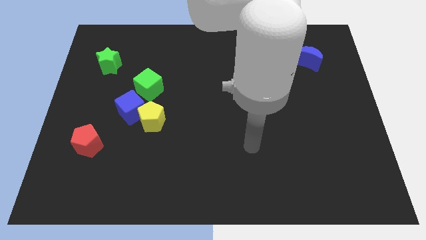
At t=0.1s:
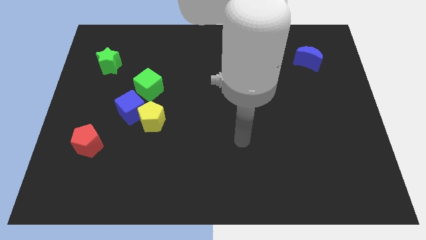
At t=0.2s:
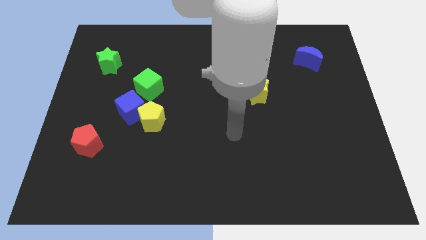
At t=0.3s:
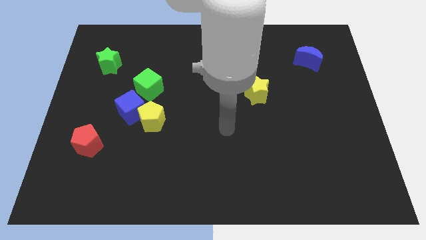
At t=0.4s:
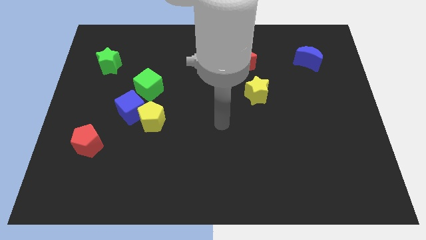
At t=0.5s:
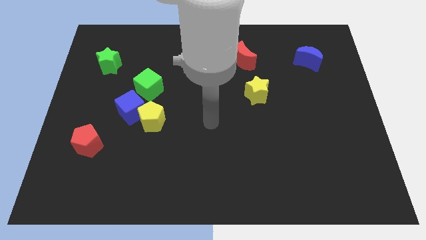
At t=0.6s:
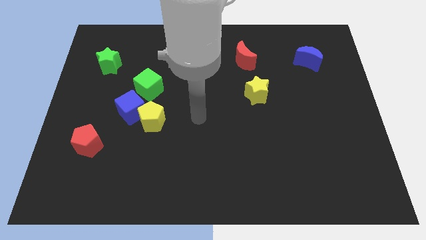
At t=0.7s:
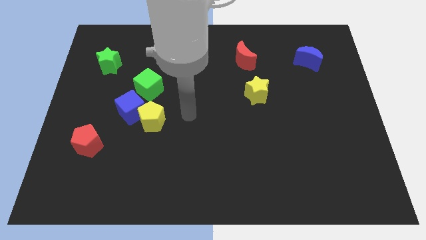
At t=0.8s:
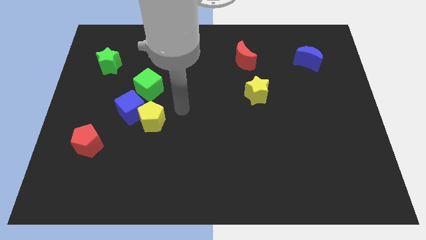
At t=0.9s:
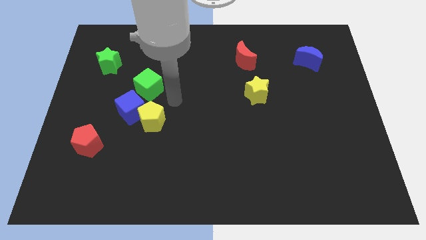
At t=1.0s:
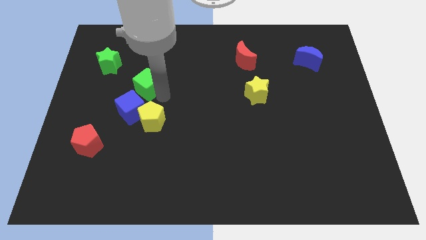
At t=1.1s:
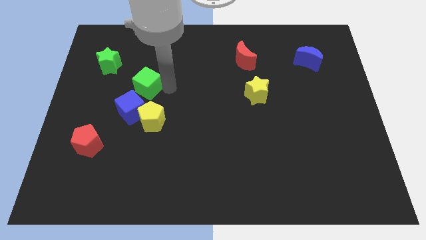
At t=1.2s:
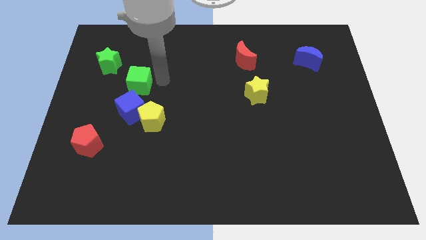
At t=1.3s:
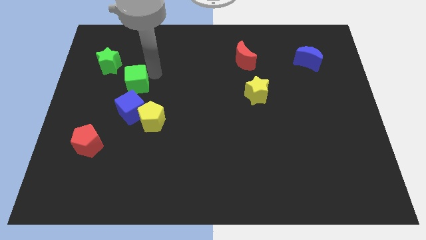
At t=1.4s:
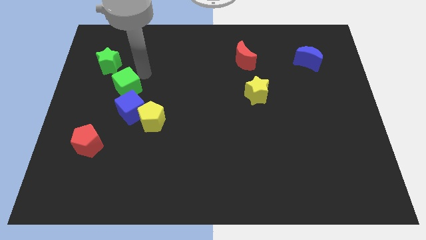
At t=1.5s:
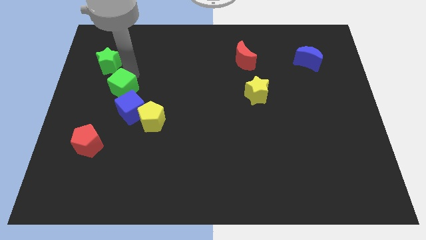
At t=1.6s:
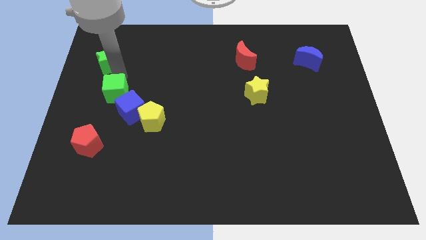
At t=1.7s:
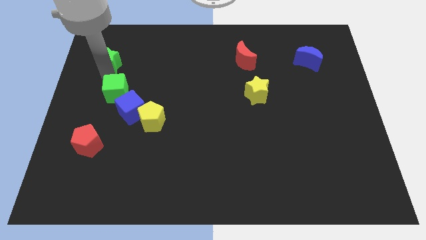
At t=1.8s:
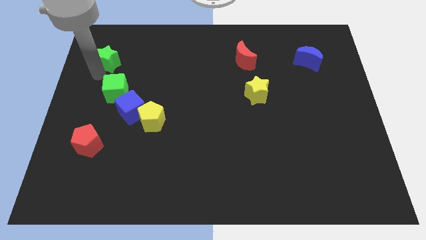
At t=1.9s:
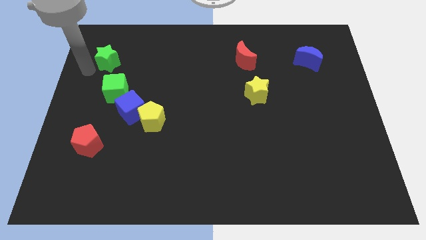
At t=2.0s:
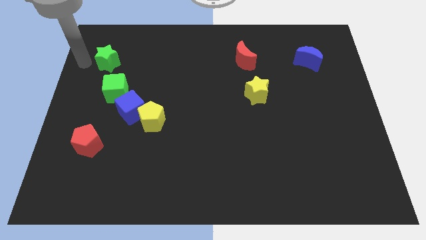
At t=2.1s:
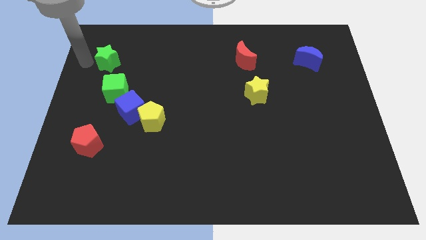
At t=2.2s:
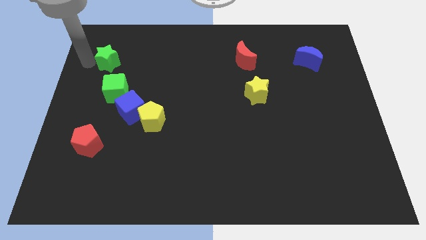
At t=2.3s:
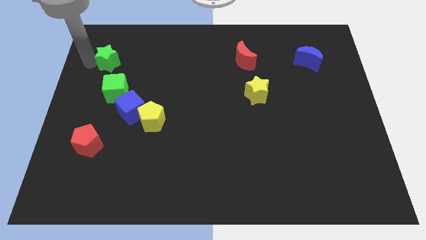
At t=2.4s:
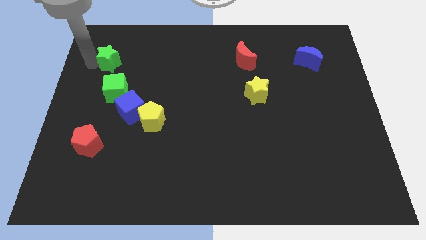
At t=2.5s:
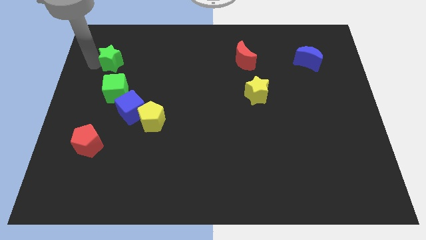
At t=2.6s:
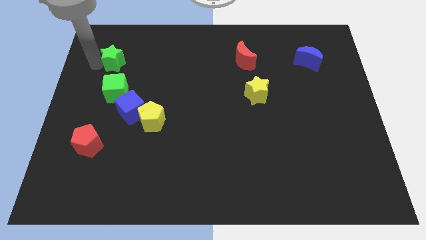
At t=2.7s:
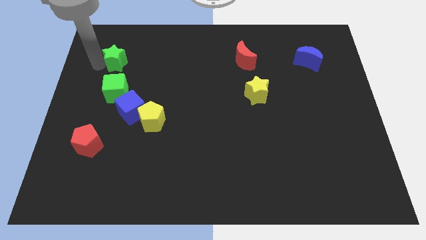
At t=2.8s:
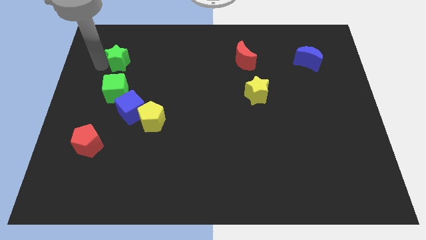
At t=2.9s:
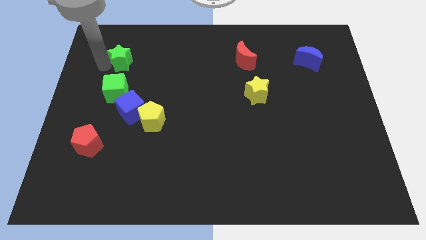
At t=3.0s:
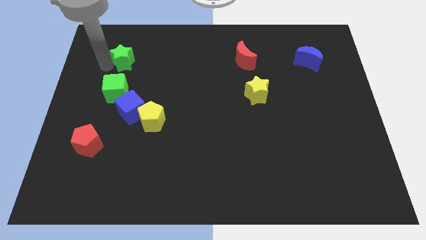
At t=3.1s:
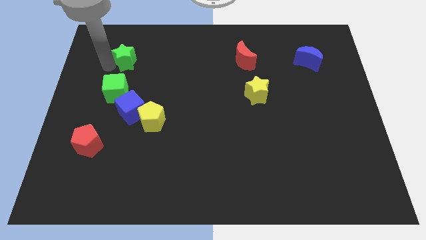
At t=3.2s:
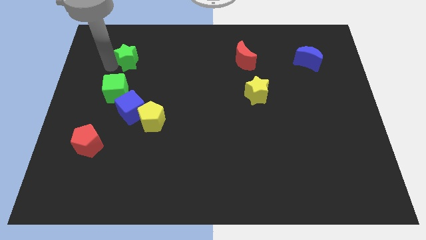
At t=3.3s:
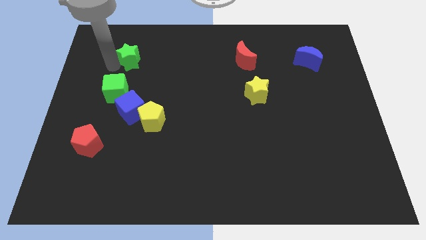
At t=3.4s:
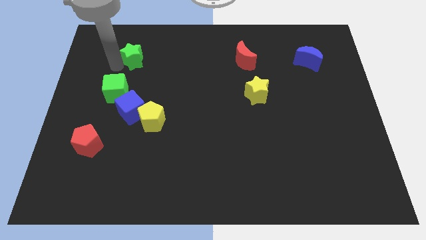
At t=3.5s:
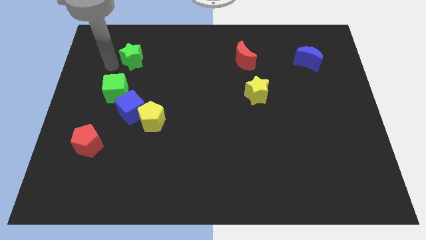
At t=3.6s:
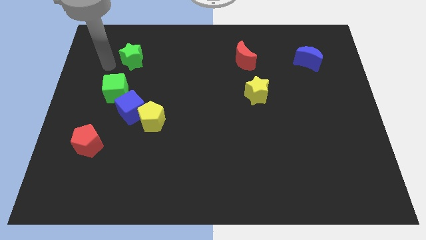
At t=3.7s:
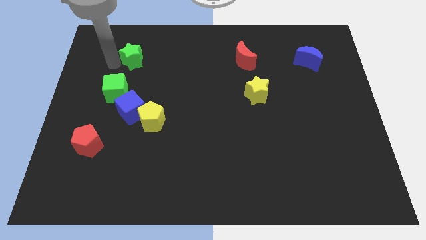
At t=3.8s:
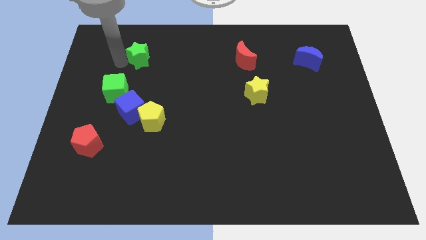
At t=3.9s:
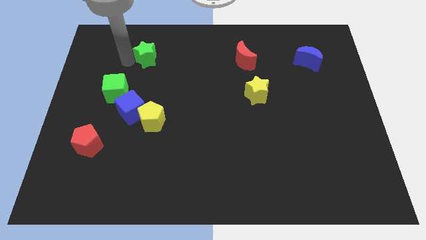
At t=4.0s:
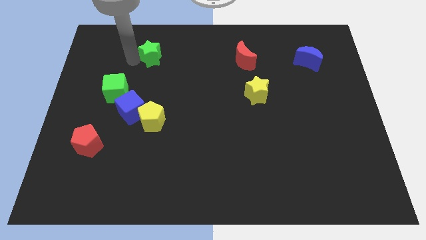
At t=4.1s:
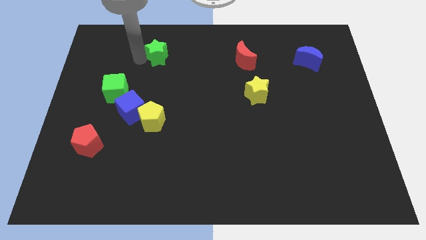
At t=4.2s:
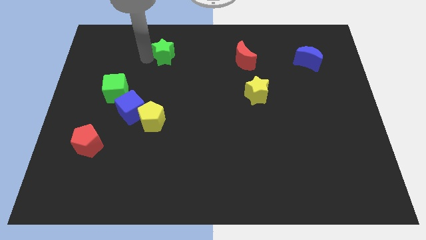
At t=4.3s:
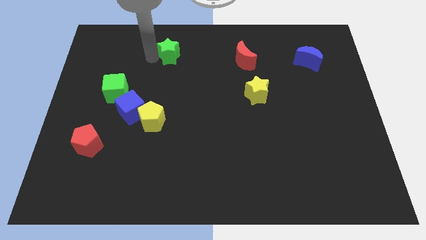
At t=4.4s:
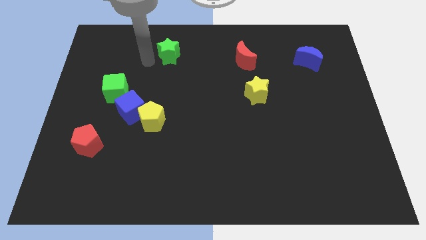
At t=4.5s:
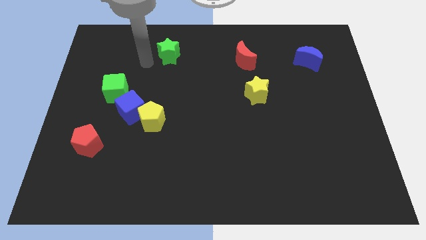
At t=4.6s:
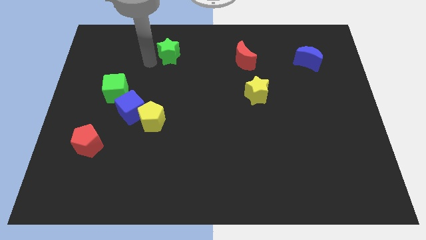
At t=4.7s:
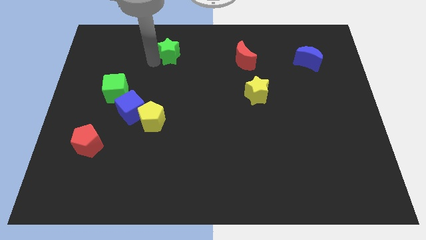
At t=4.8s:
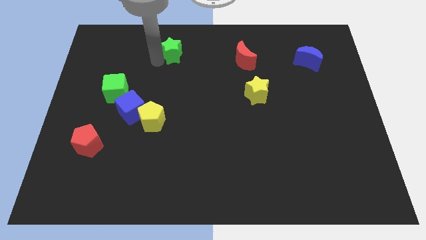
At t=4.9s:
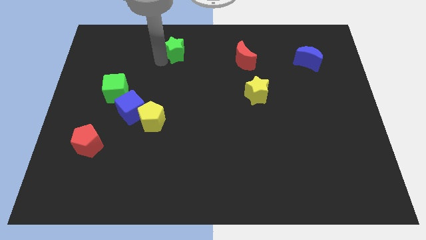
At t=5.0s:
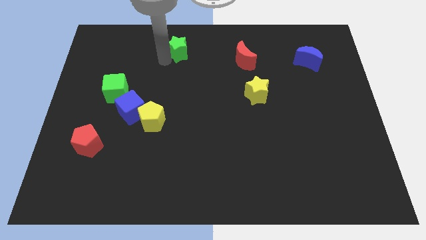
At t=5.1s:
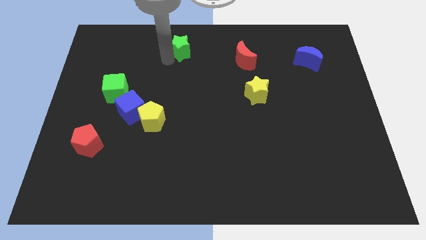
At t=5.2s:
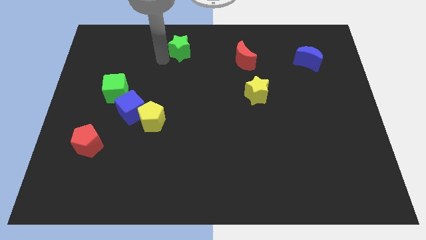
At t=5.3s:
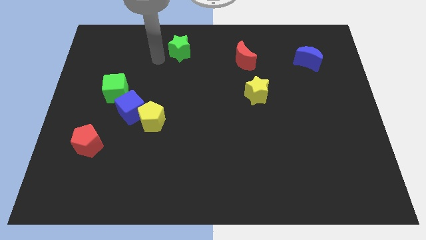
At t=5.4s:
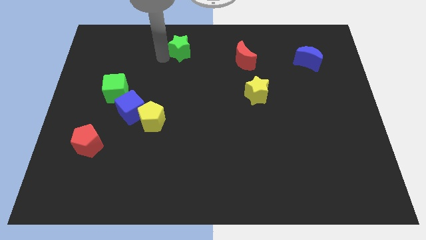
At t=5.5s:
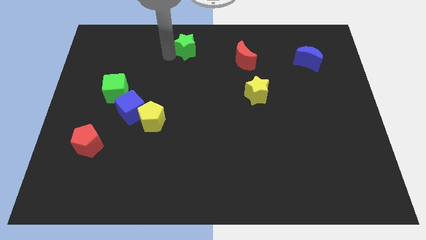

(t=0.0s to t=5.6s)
move the green star to the towards your base

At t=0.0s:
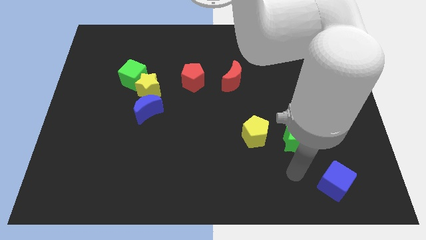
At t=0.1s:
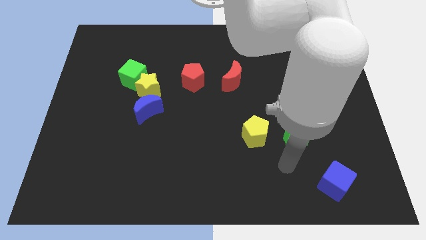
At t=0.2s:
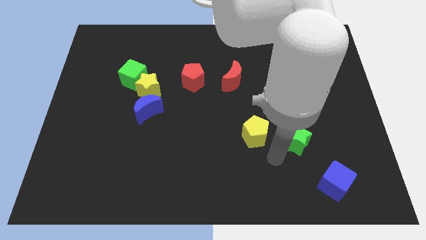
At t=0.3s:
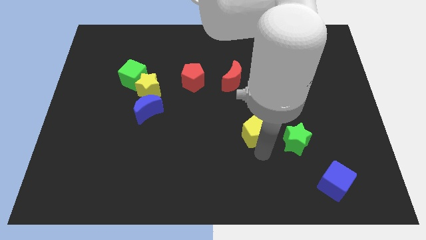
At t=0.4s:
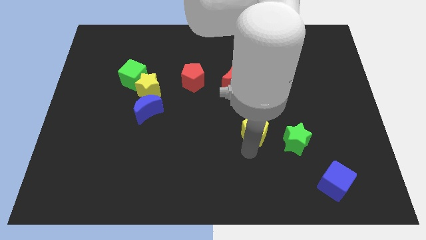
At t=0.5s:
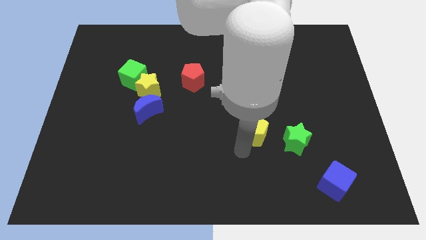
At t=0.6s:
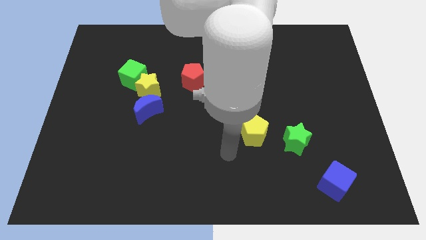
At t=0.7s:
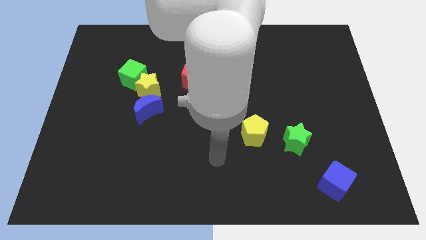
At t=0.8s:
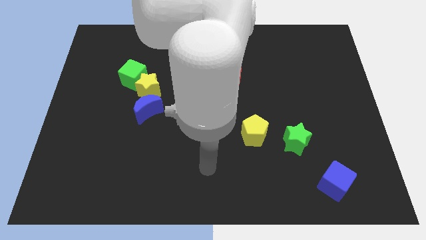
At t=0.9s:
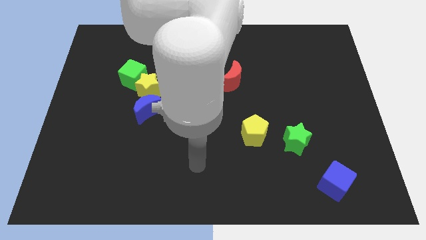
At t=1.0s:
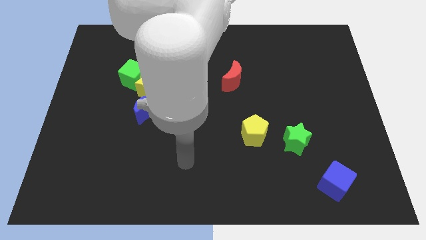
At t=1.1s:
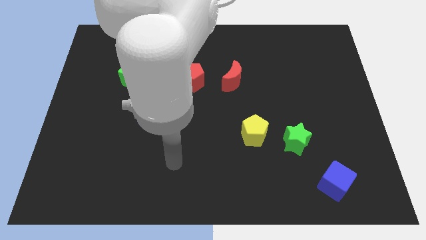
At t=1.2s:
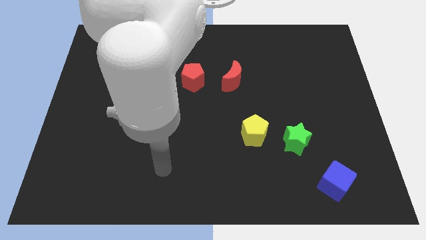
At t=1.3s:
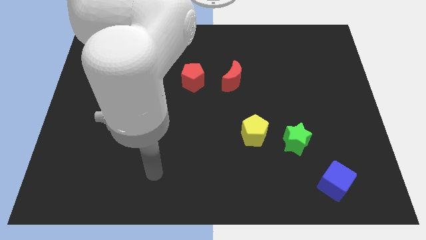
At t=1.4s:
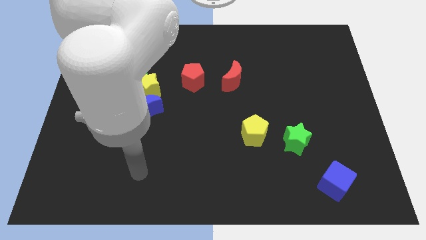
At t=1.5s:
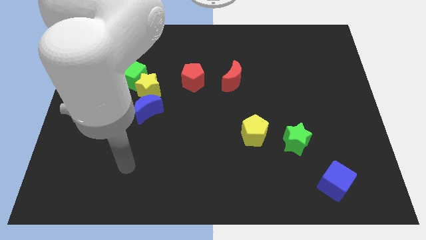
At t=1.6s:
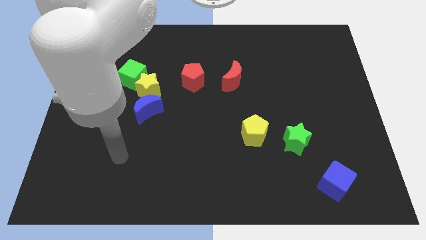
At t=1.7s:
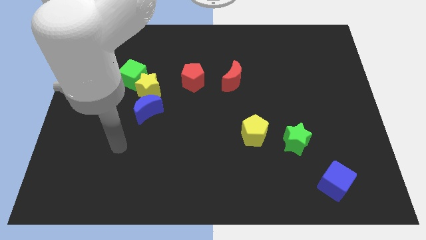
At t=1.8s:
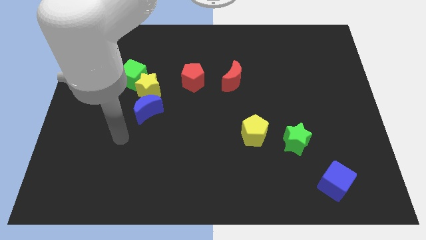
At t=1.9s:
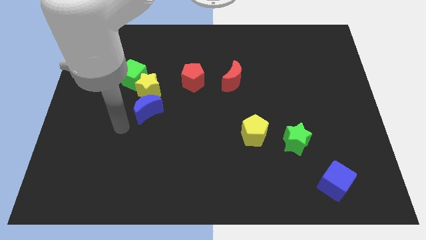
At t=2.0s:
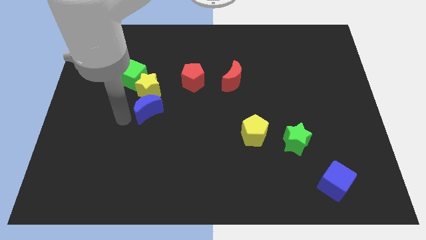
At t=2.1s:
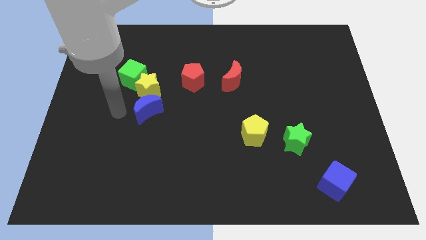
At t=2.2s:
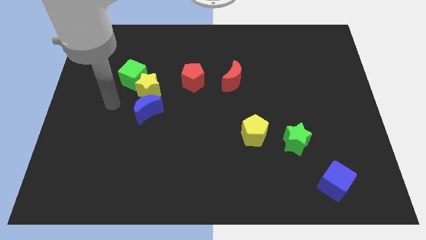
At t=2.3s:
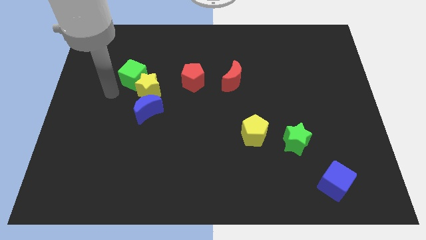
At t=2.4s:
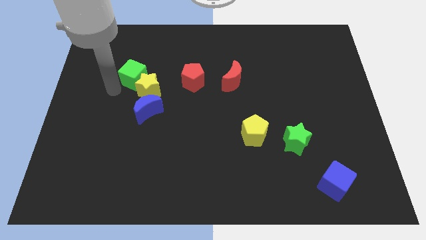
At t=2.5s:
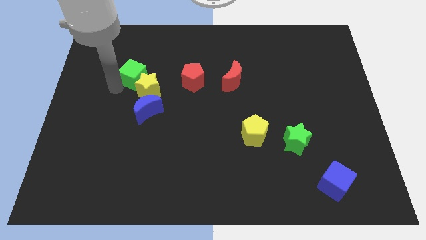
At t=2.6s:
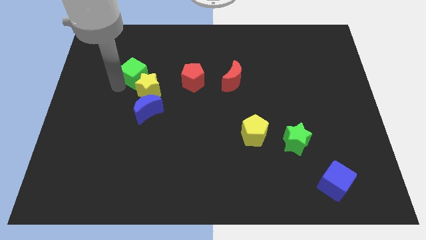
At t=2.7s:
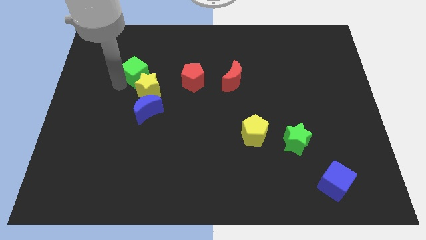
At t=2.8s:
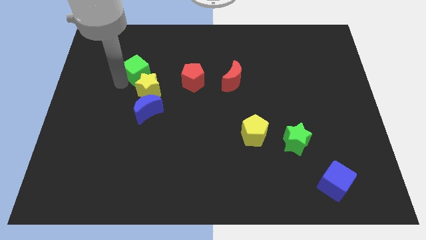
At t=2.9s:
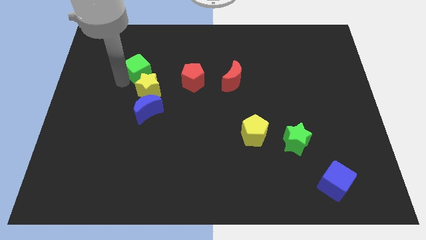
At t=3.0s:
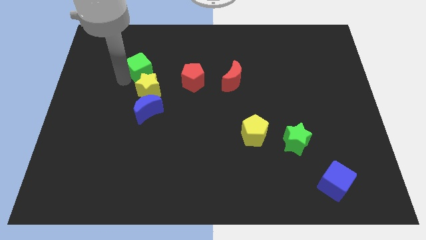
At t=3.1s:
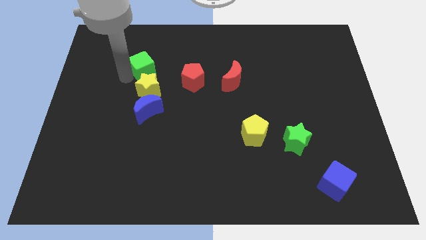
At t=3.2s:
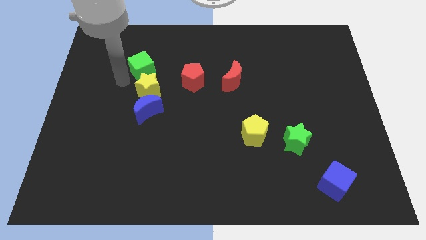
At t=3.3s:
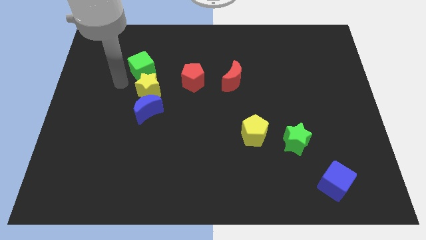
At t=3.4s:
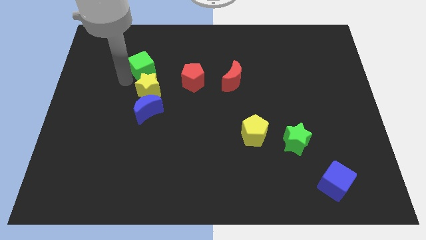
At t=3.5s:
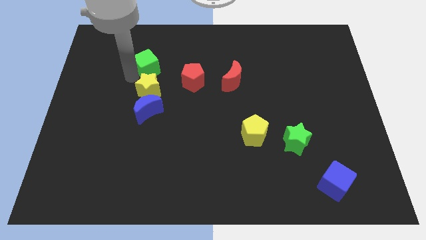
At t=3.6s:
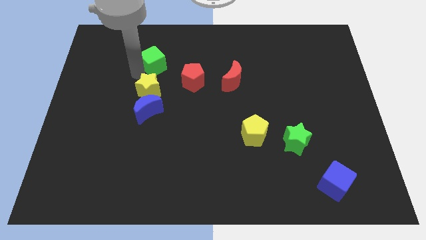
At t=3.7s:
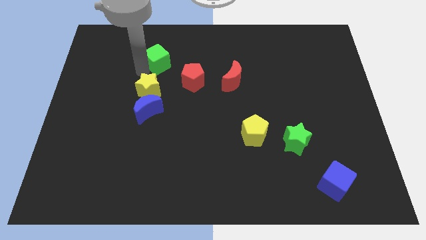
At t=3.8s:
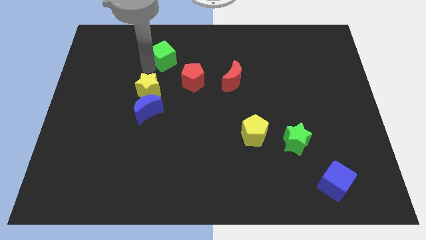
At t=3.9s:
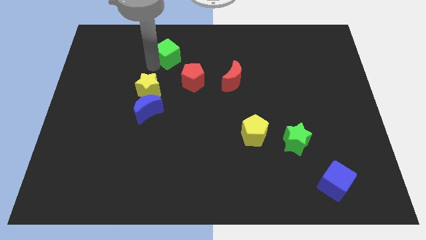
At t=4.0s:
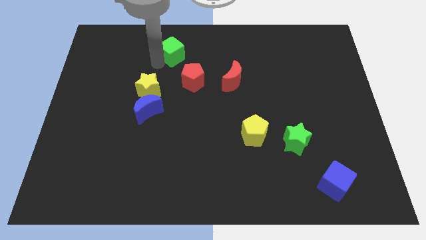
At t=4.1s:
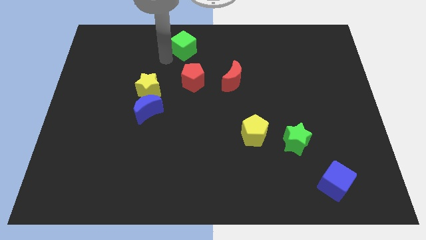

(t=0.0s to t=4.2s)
slide the green cube to the top side
